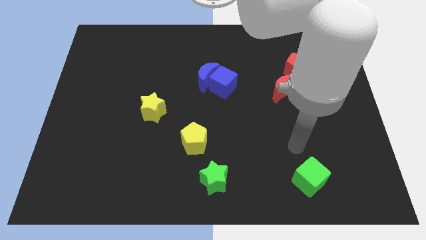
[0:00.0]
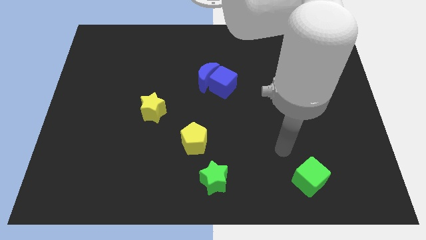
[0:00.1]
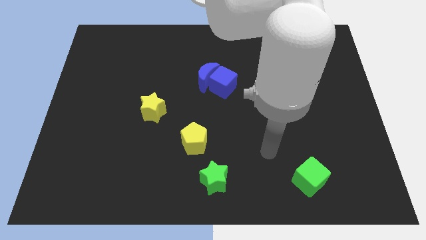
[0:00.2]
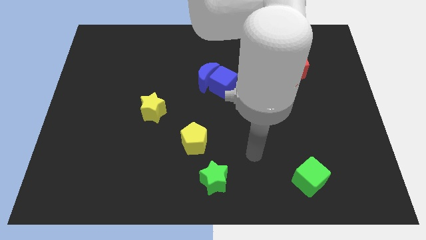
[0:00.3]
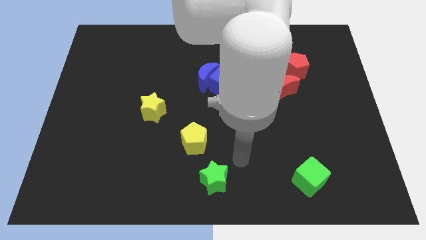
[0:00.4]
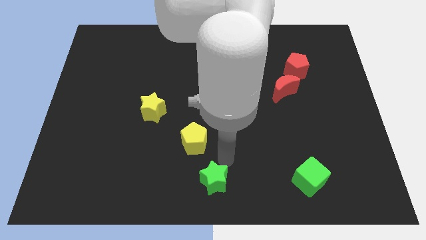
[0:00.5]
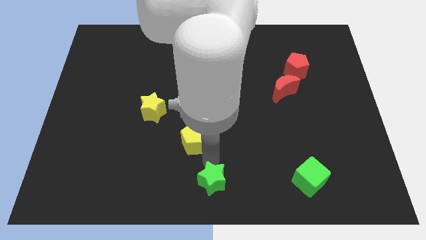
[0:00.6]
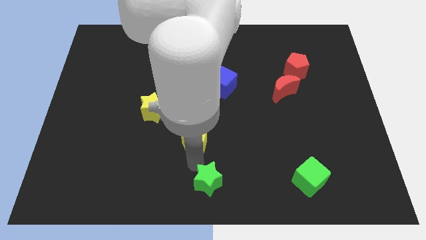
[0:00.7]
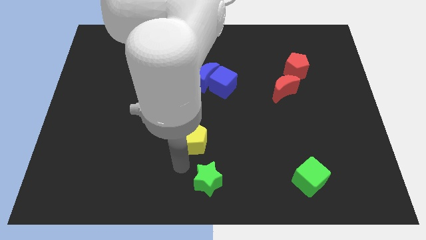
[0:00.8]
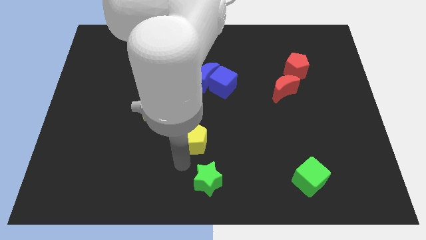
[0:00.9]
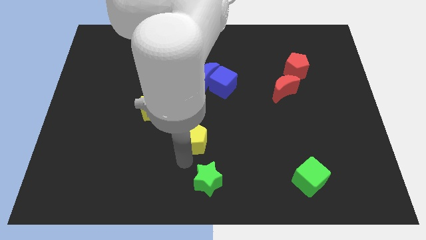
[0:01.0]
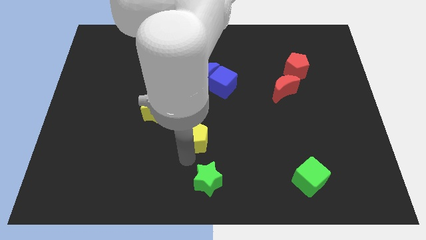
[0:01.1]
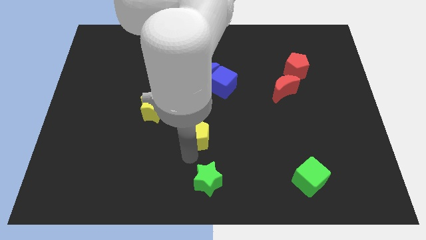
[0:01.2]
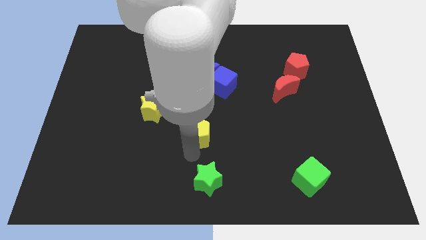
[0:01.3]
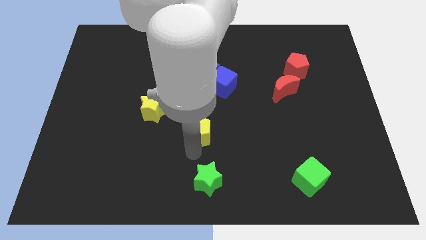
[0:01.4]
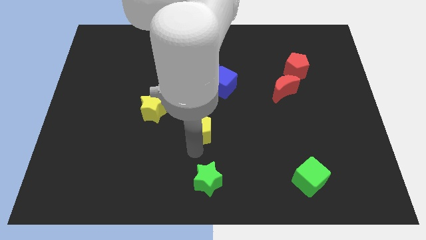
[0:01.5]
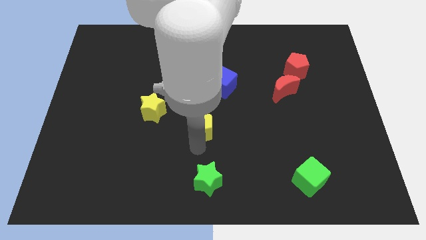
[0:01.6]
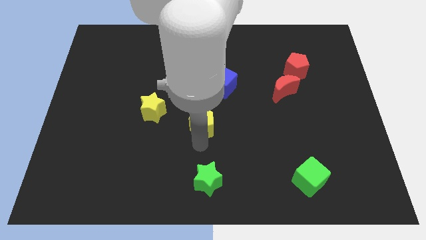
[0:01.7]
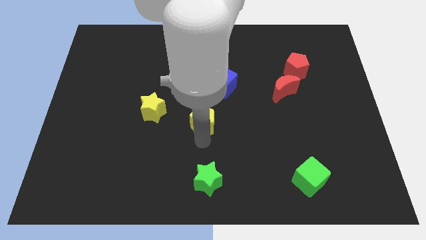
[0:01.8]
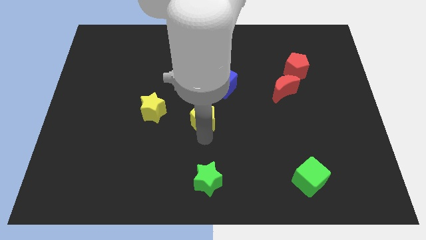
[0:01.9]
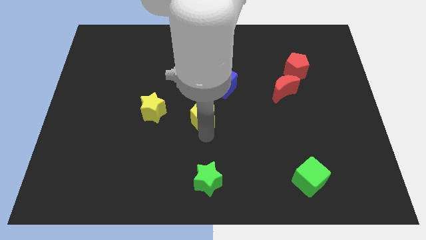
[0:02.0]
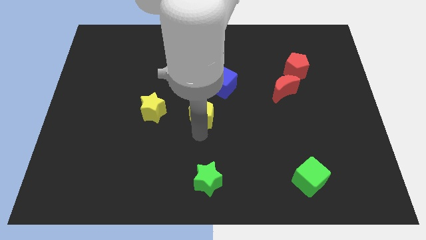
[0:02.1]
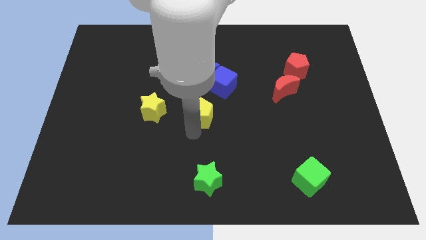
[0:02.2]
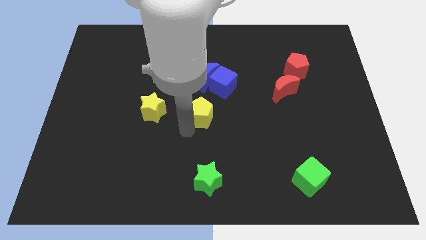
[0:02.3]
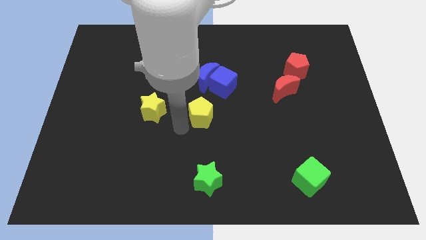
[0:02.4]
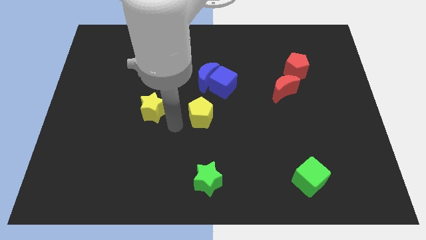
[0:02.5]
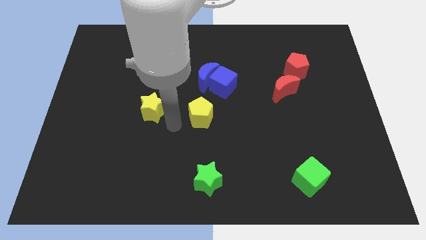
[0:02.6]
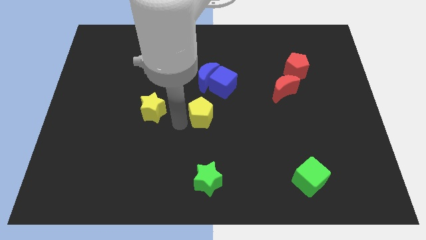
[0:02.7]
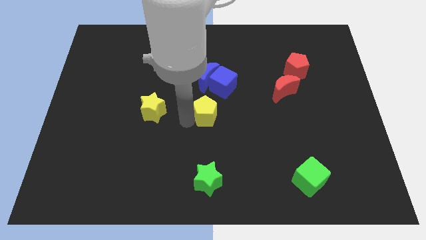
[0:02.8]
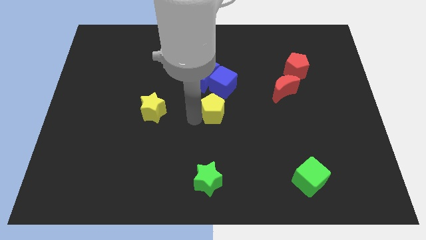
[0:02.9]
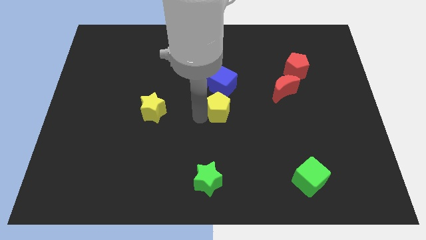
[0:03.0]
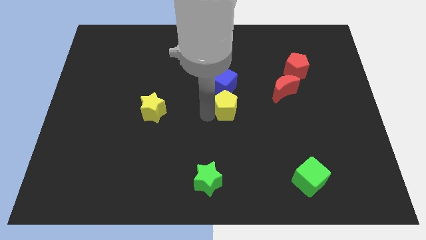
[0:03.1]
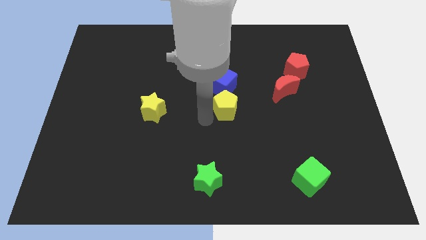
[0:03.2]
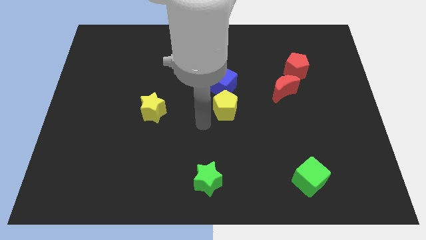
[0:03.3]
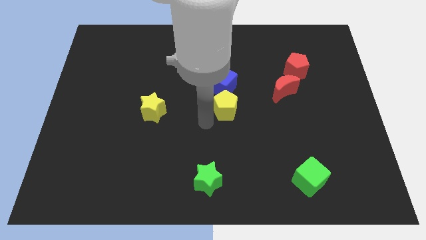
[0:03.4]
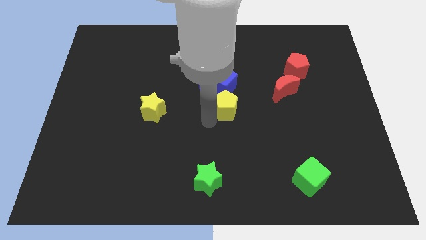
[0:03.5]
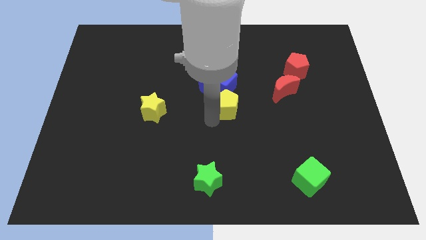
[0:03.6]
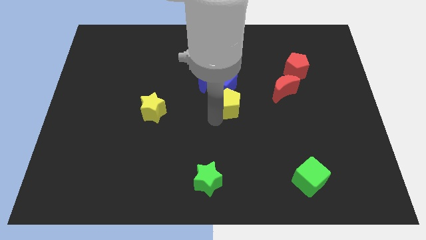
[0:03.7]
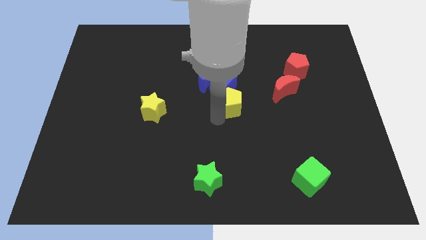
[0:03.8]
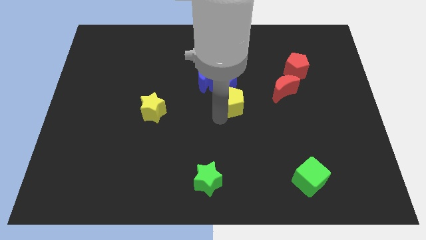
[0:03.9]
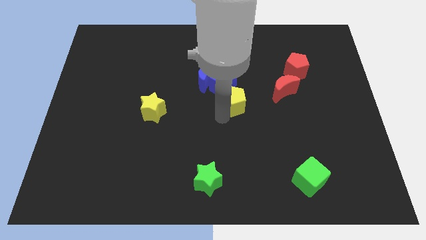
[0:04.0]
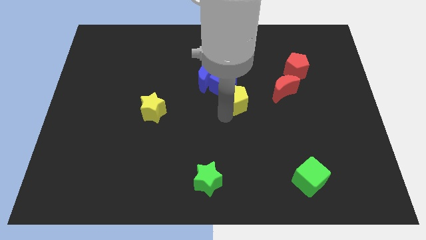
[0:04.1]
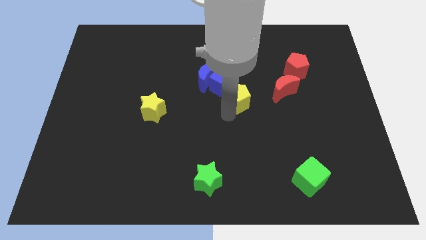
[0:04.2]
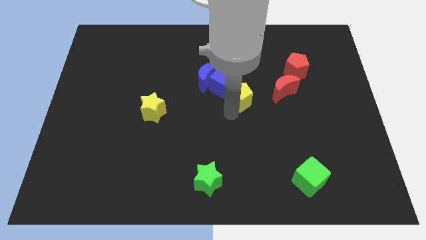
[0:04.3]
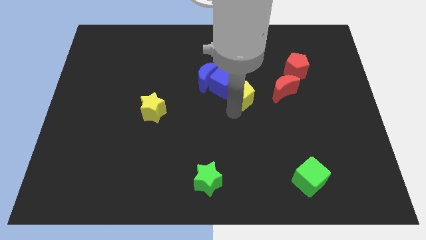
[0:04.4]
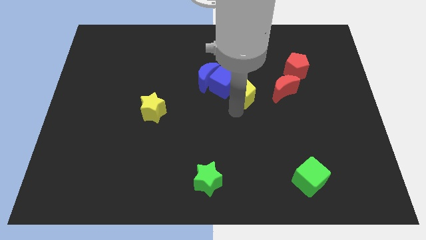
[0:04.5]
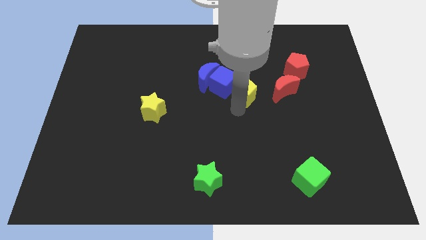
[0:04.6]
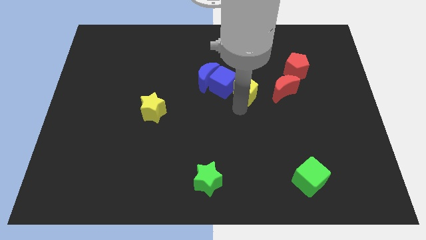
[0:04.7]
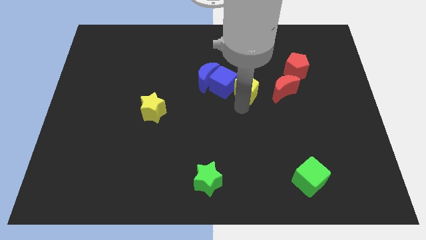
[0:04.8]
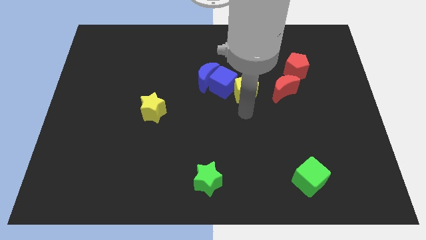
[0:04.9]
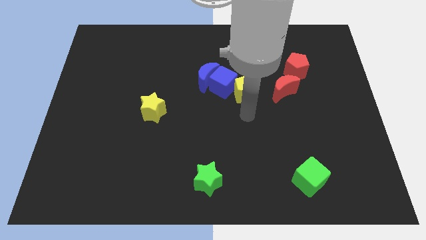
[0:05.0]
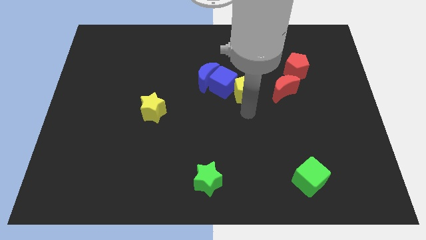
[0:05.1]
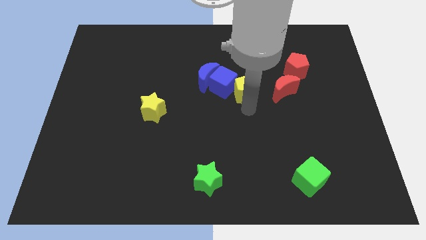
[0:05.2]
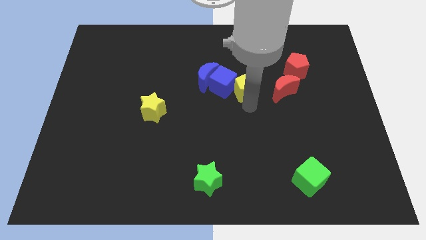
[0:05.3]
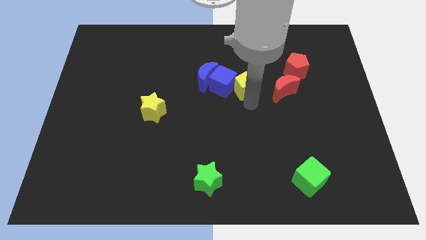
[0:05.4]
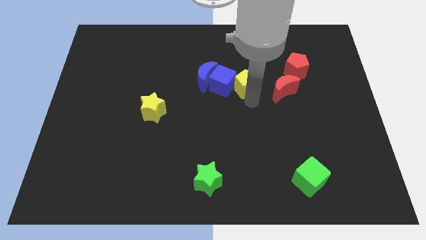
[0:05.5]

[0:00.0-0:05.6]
move the yellow pentagon to the top right of the blue cube

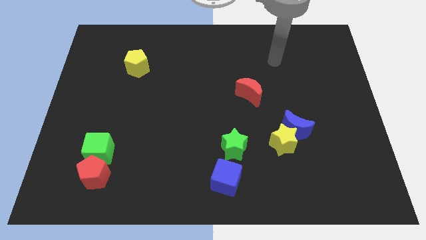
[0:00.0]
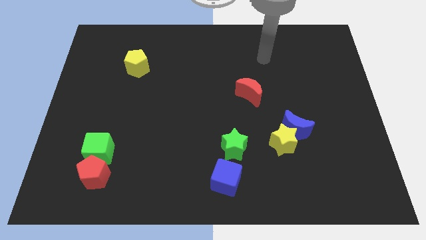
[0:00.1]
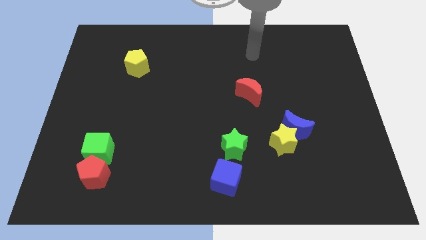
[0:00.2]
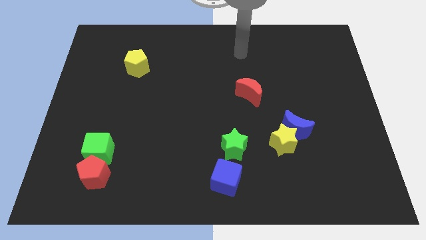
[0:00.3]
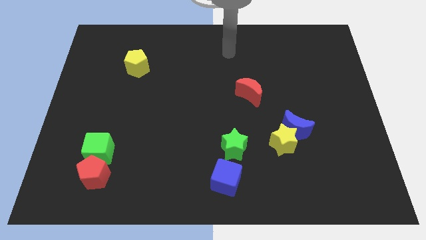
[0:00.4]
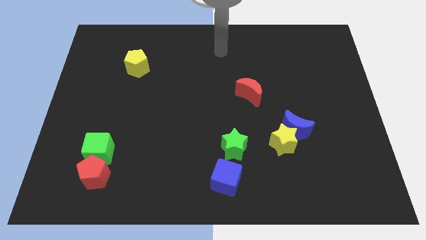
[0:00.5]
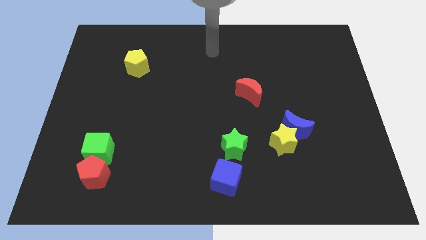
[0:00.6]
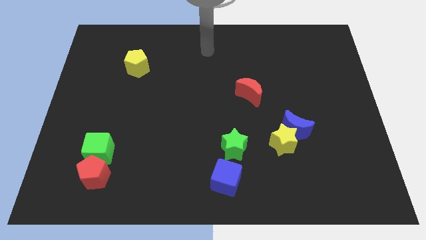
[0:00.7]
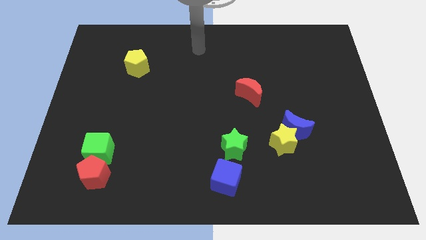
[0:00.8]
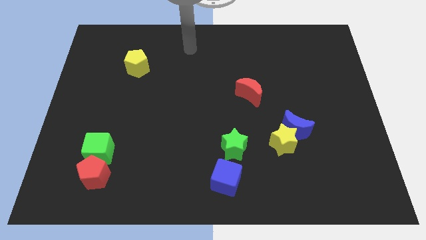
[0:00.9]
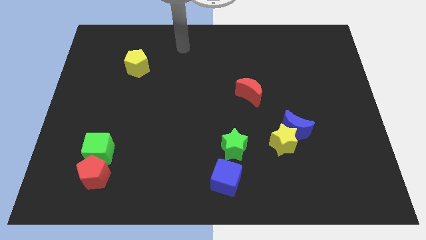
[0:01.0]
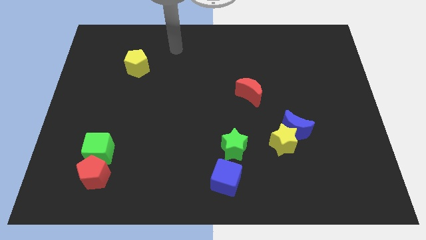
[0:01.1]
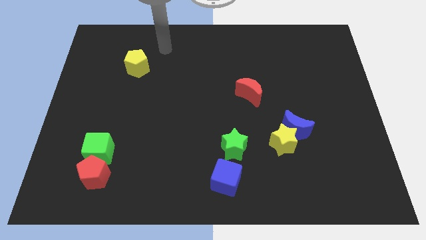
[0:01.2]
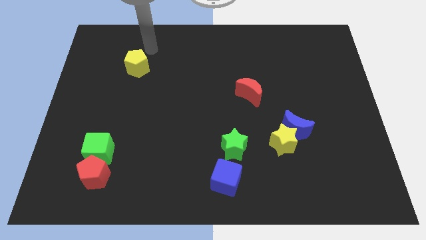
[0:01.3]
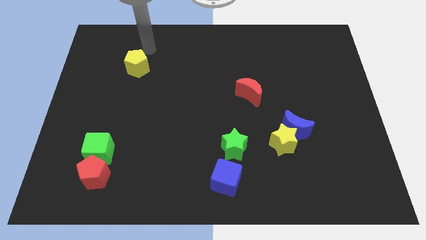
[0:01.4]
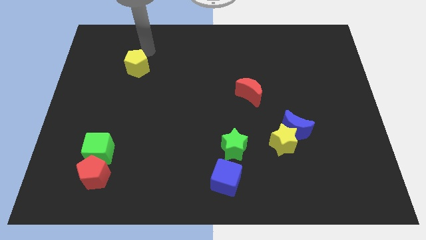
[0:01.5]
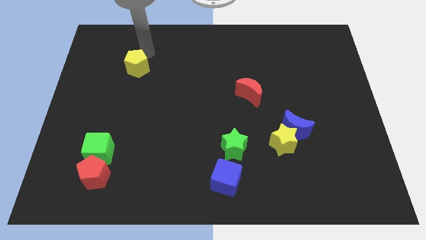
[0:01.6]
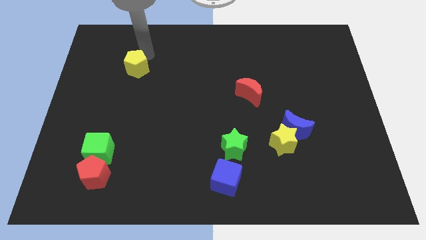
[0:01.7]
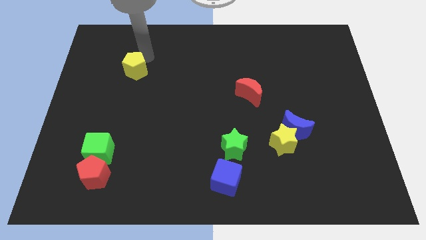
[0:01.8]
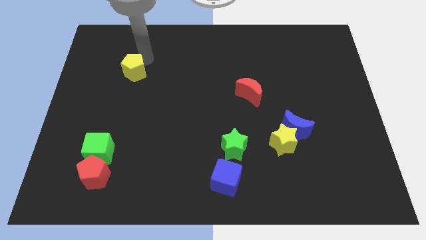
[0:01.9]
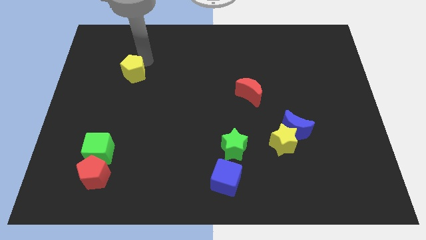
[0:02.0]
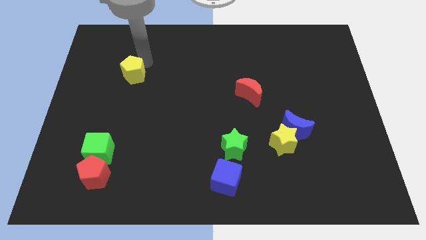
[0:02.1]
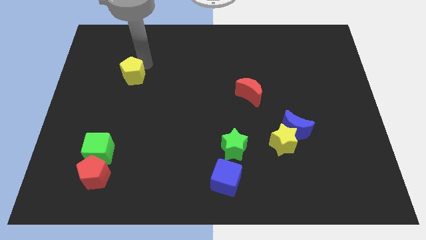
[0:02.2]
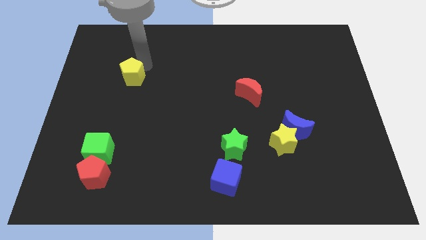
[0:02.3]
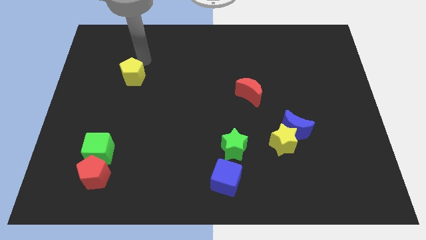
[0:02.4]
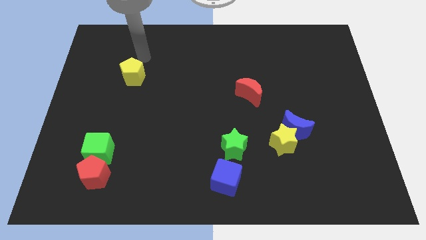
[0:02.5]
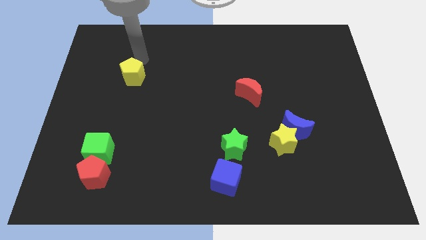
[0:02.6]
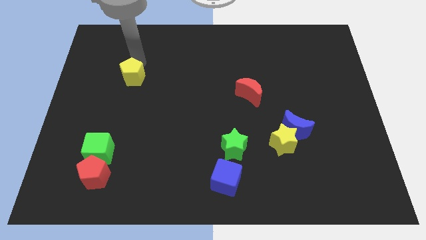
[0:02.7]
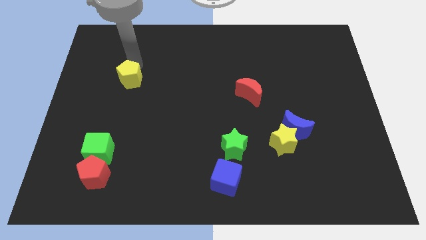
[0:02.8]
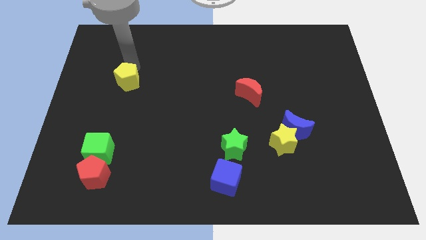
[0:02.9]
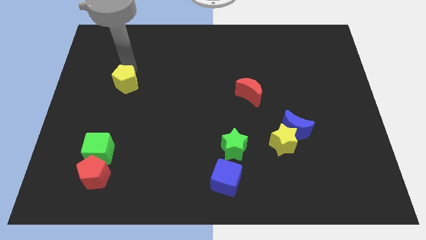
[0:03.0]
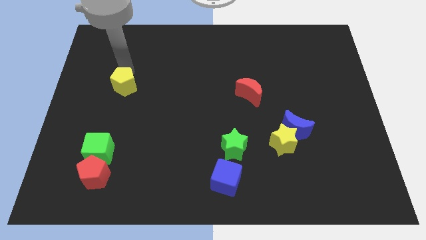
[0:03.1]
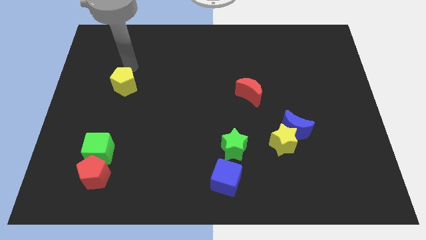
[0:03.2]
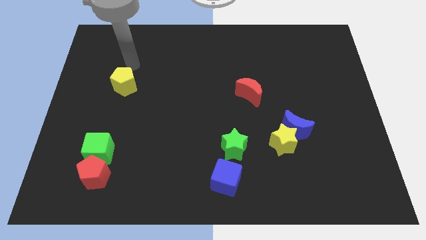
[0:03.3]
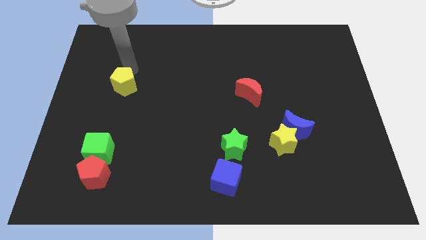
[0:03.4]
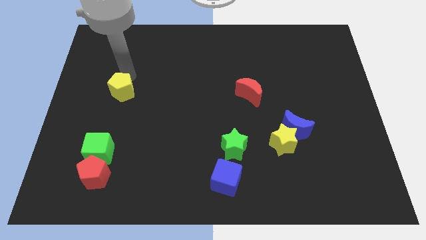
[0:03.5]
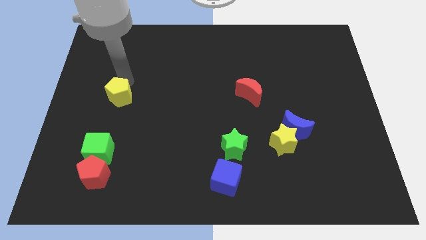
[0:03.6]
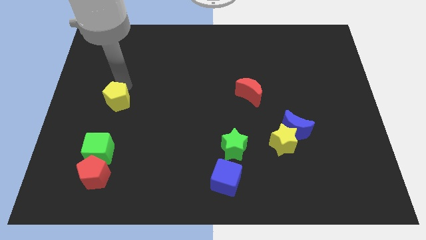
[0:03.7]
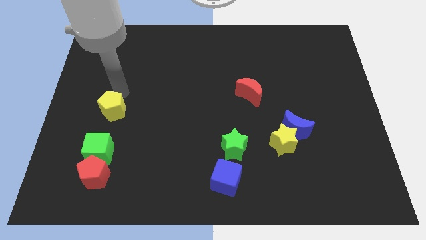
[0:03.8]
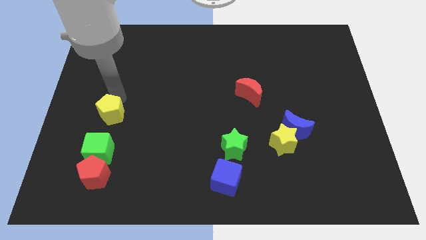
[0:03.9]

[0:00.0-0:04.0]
move the yellow pentagon to the top of the red pentagon
